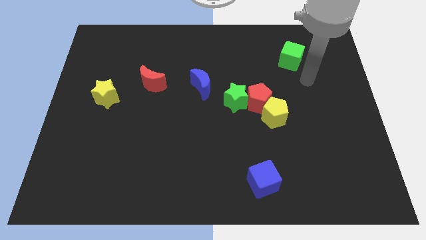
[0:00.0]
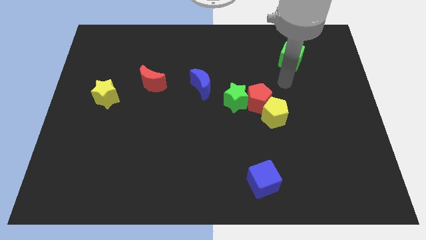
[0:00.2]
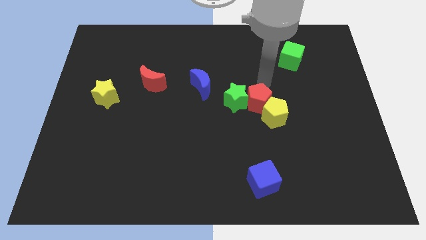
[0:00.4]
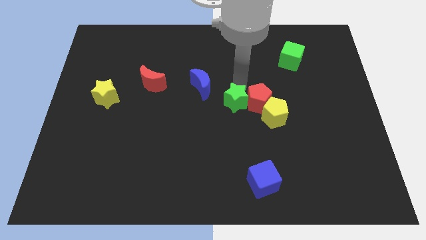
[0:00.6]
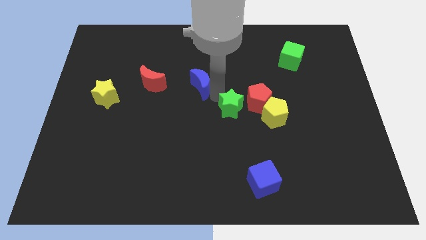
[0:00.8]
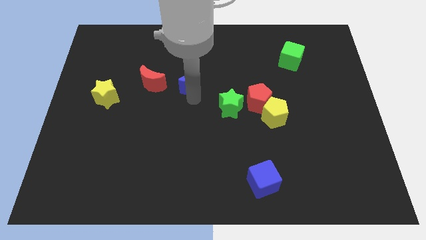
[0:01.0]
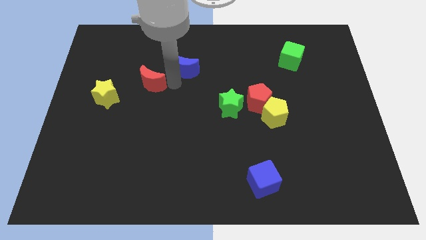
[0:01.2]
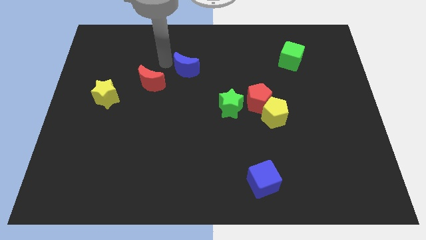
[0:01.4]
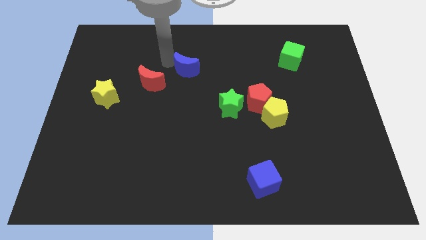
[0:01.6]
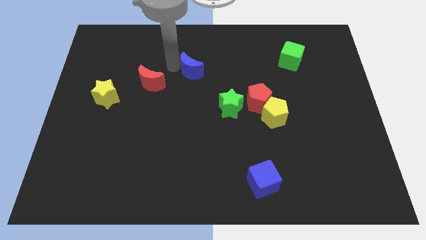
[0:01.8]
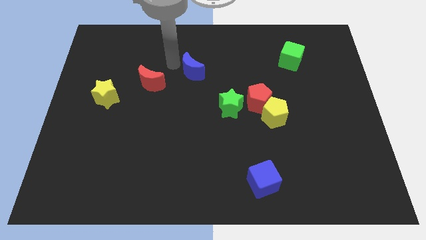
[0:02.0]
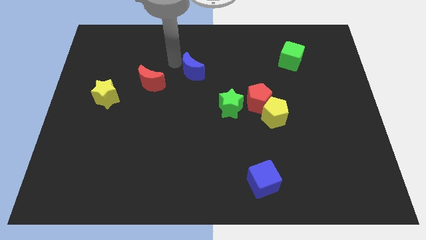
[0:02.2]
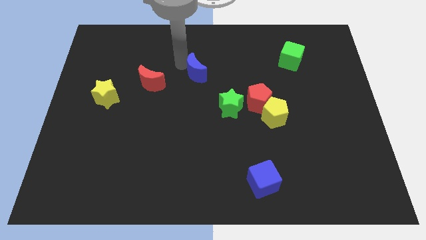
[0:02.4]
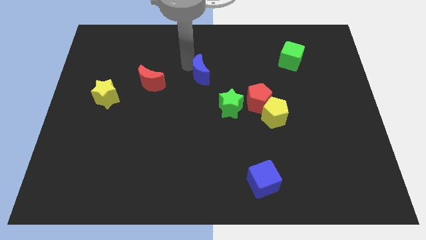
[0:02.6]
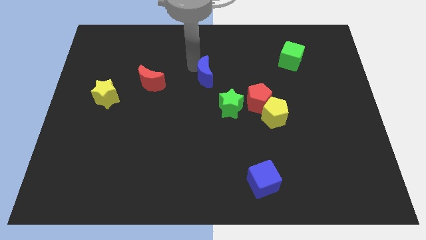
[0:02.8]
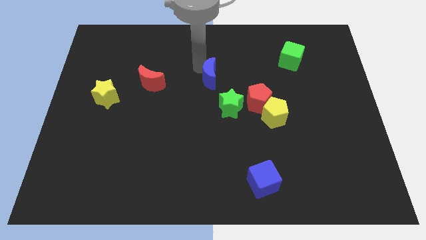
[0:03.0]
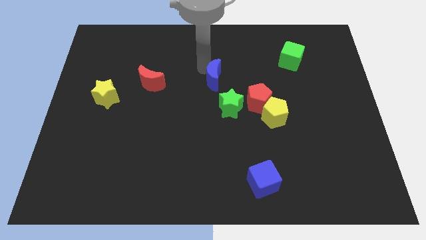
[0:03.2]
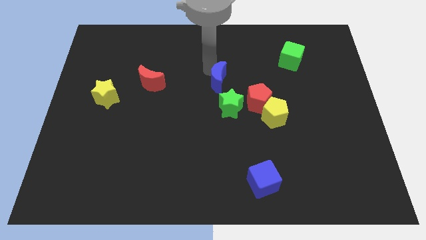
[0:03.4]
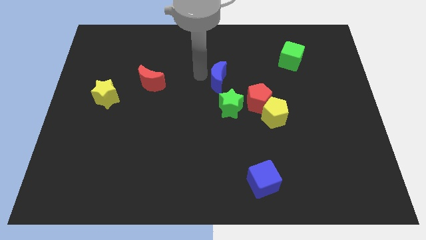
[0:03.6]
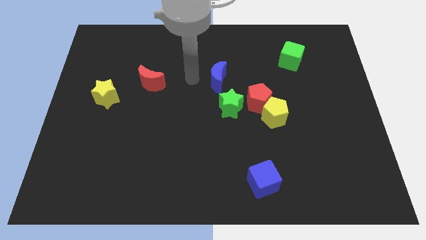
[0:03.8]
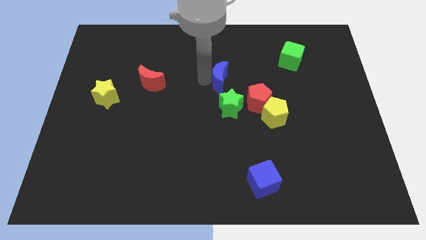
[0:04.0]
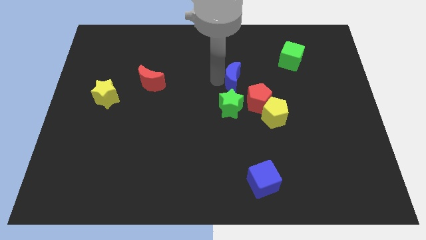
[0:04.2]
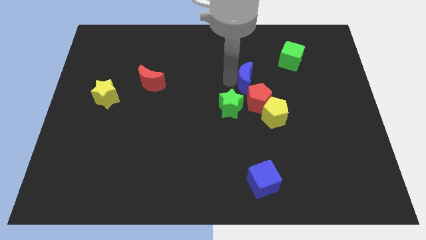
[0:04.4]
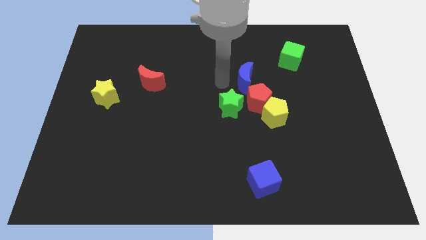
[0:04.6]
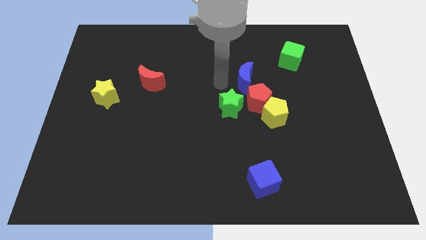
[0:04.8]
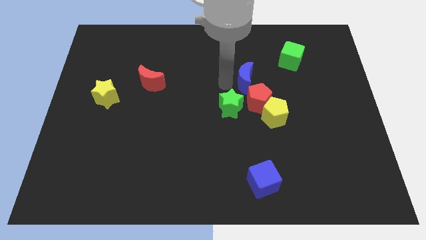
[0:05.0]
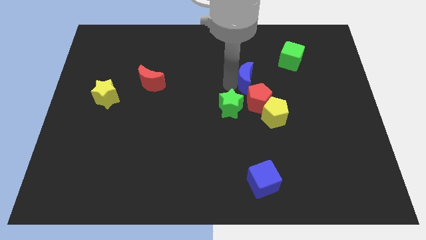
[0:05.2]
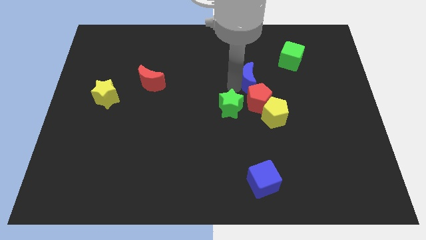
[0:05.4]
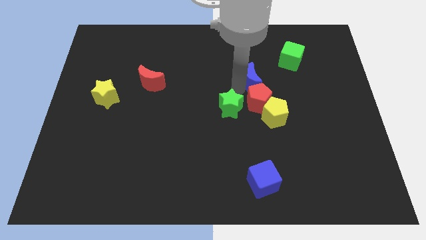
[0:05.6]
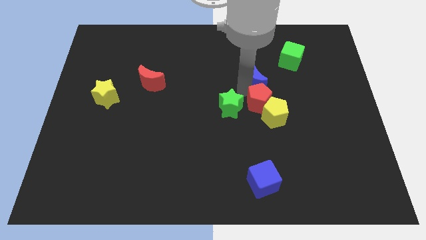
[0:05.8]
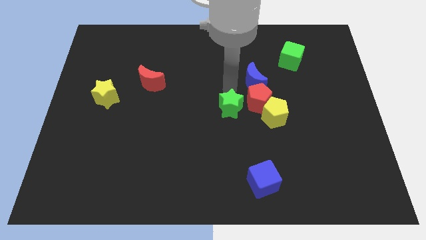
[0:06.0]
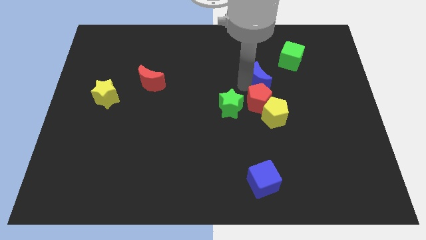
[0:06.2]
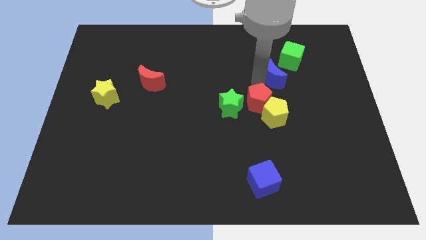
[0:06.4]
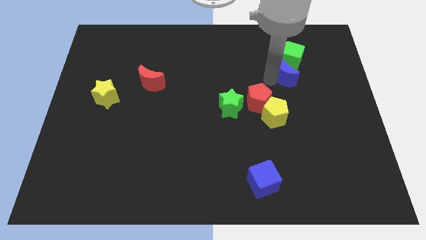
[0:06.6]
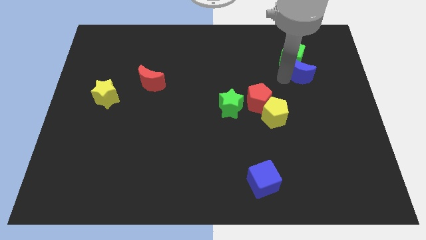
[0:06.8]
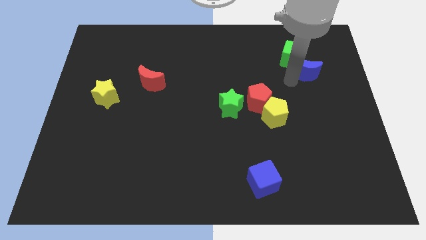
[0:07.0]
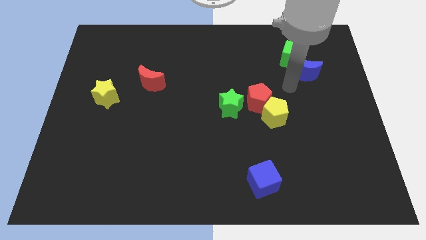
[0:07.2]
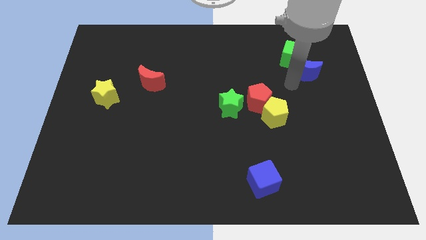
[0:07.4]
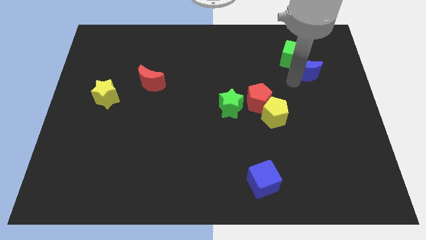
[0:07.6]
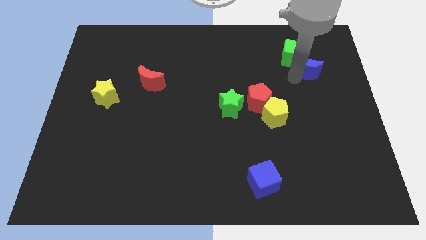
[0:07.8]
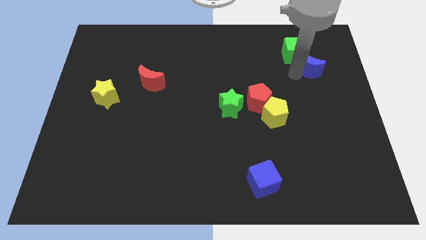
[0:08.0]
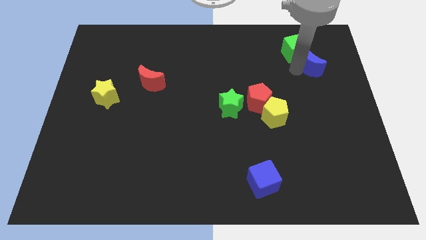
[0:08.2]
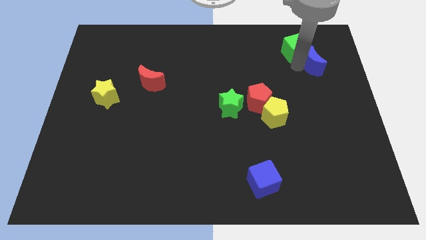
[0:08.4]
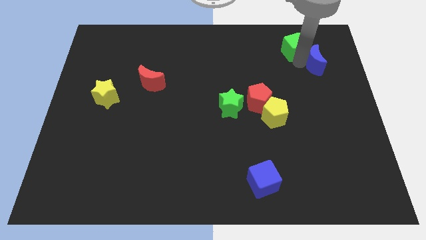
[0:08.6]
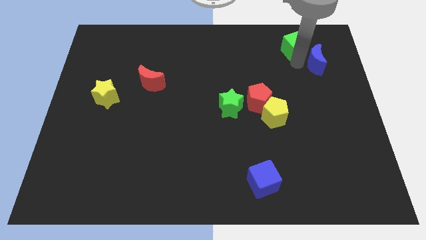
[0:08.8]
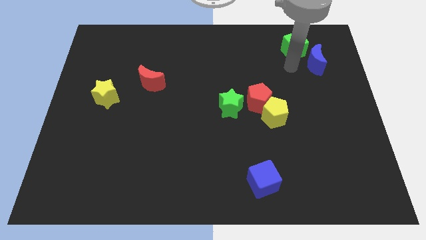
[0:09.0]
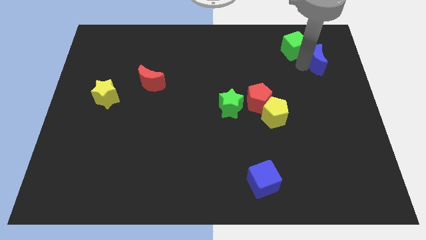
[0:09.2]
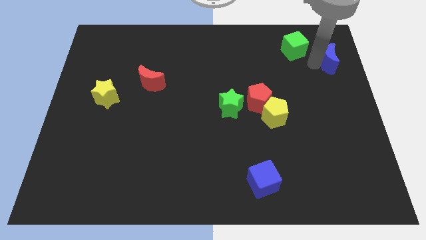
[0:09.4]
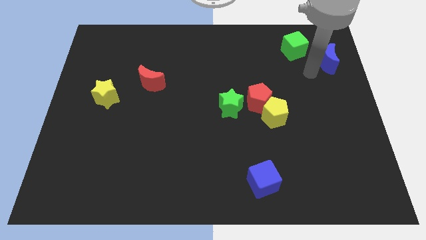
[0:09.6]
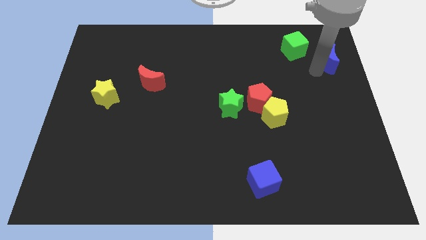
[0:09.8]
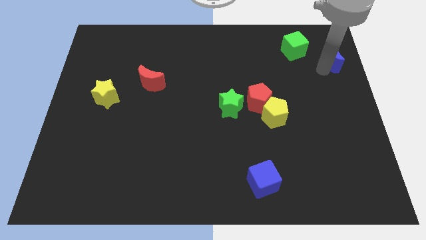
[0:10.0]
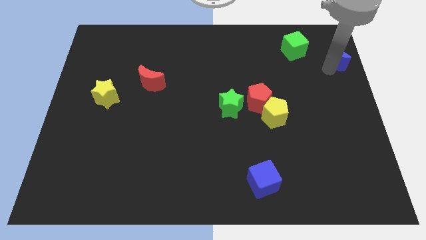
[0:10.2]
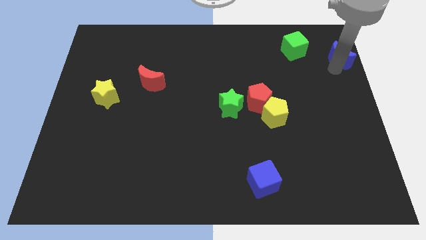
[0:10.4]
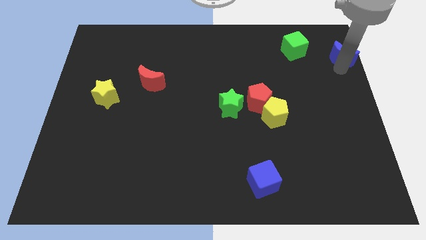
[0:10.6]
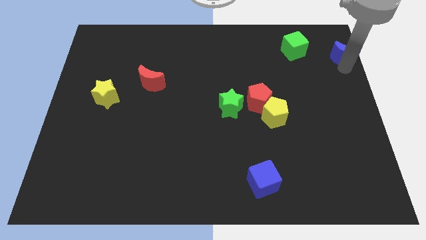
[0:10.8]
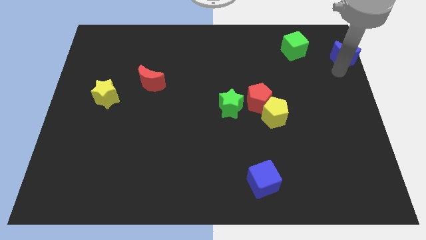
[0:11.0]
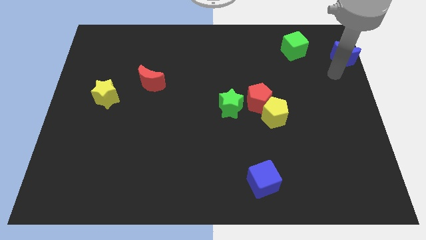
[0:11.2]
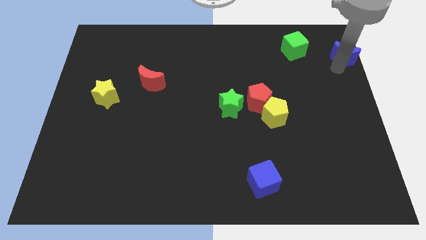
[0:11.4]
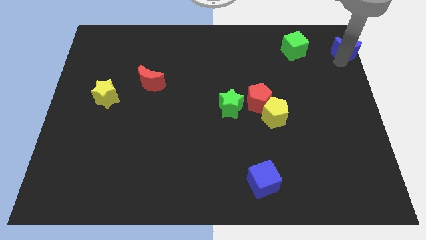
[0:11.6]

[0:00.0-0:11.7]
slide the blue moon to the top right

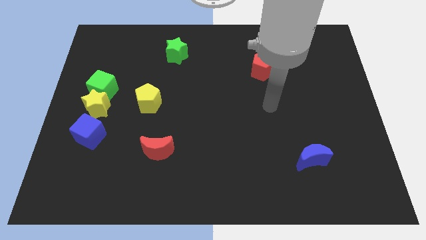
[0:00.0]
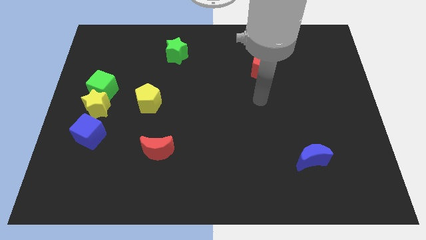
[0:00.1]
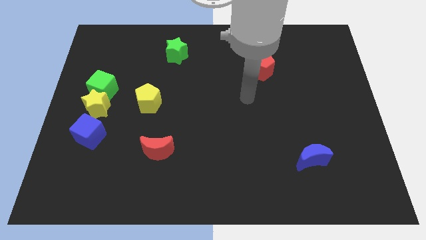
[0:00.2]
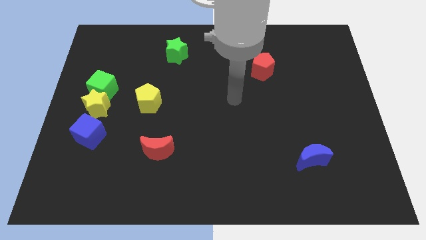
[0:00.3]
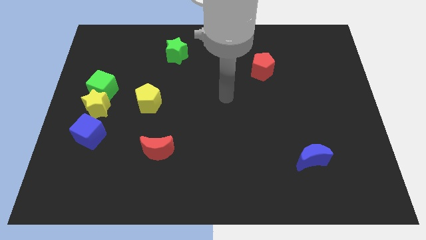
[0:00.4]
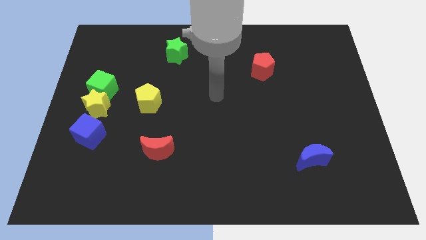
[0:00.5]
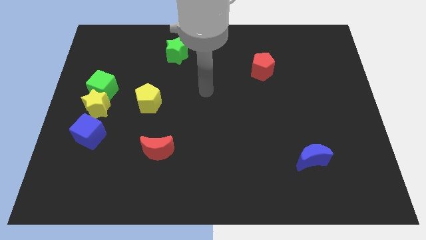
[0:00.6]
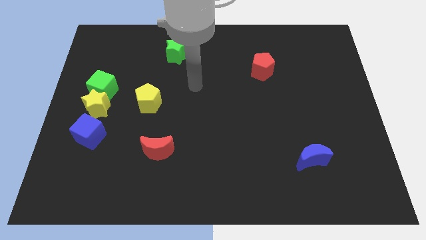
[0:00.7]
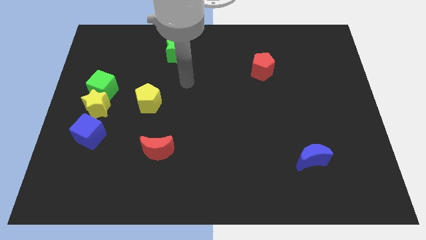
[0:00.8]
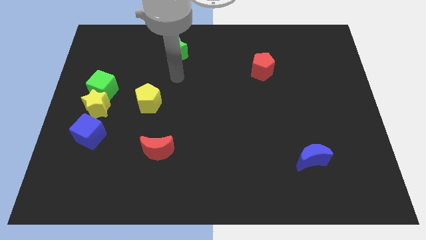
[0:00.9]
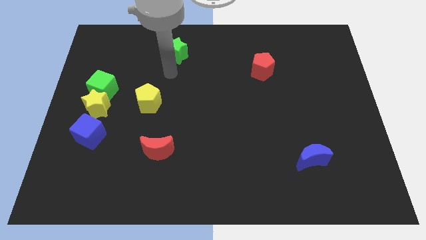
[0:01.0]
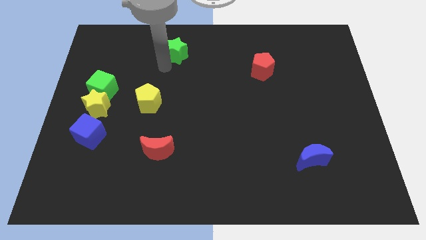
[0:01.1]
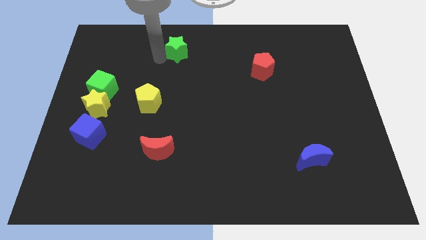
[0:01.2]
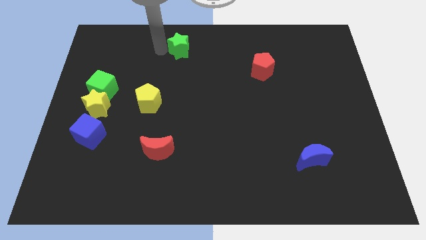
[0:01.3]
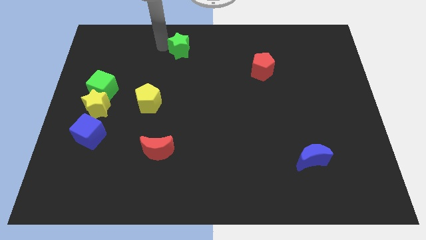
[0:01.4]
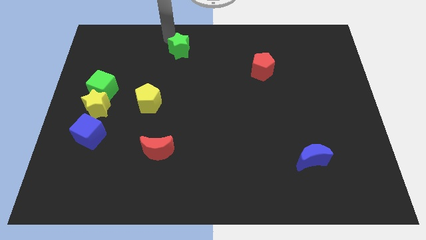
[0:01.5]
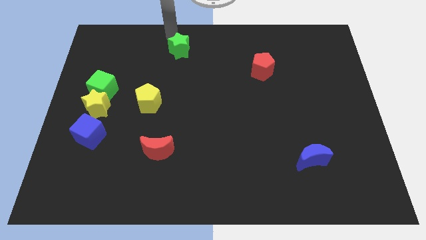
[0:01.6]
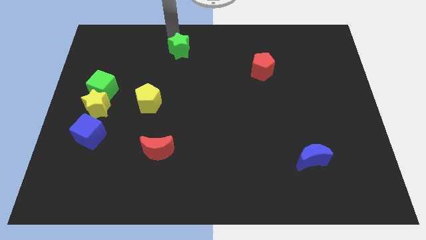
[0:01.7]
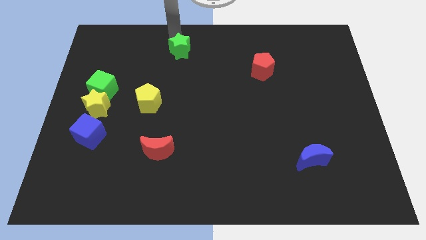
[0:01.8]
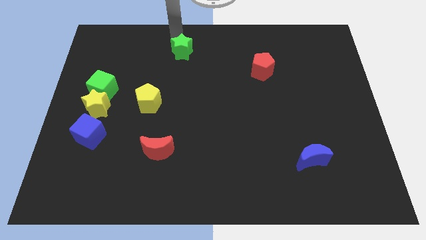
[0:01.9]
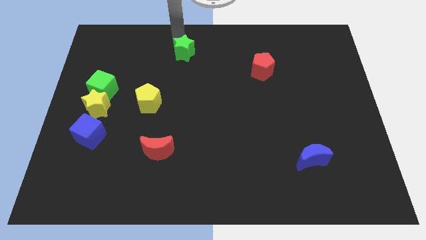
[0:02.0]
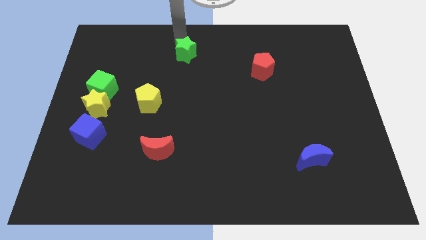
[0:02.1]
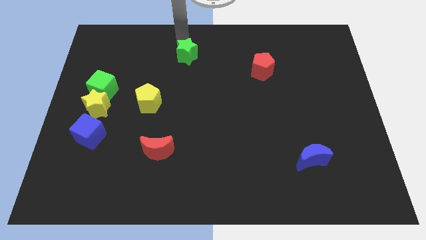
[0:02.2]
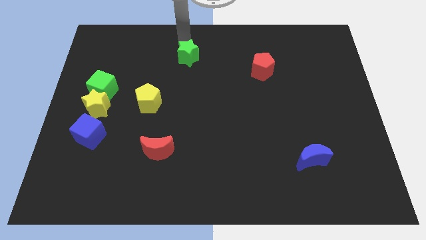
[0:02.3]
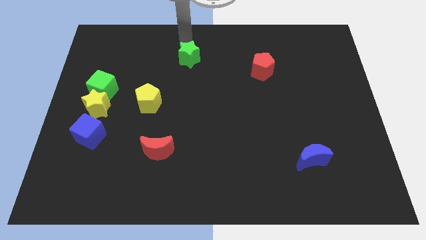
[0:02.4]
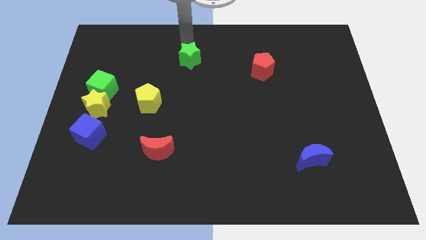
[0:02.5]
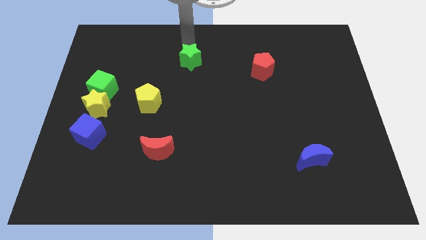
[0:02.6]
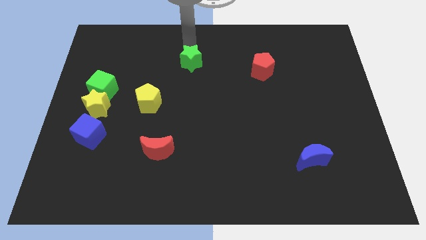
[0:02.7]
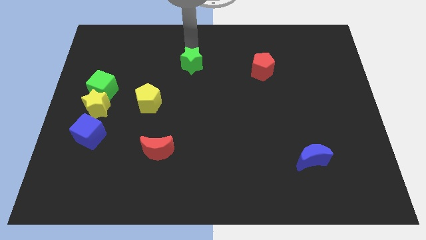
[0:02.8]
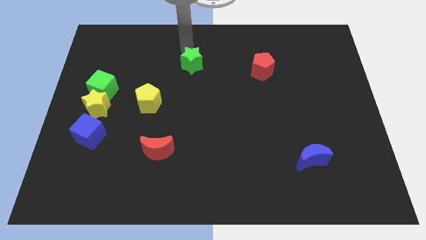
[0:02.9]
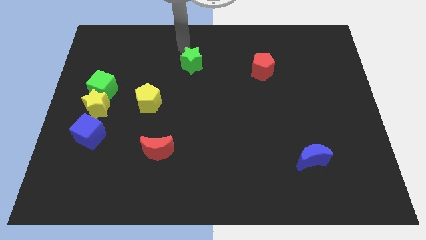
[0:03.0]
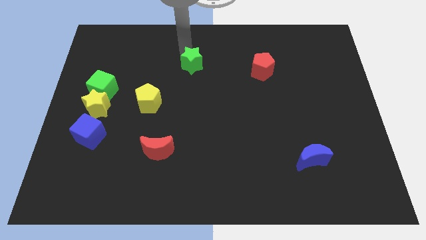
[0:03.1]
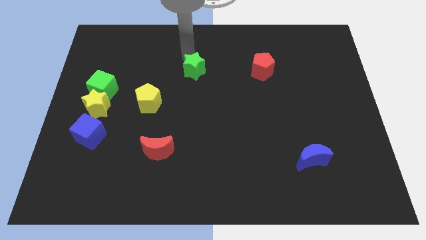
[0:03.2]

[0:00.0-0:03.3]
move the green star to the middle
